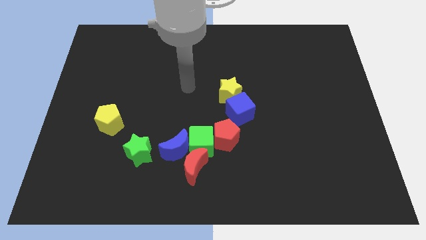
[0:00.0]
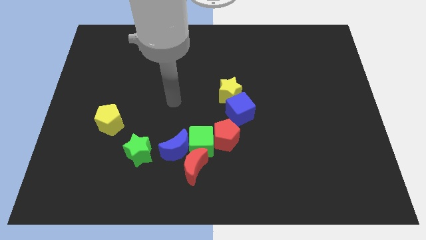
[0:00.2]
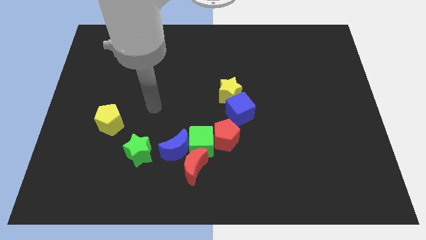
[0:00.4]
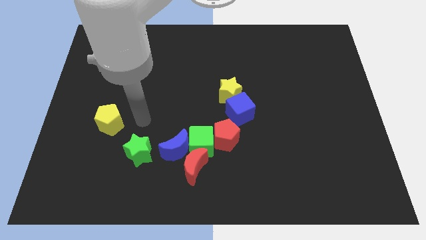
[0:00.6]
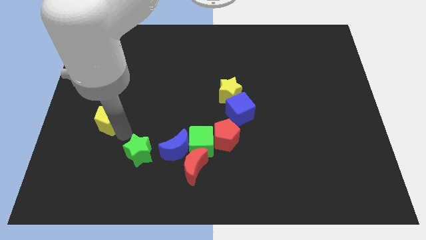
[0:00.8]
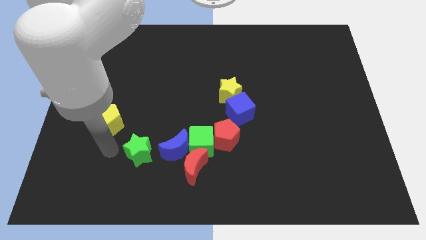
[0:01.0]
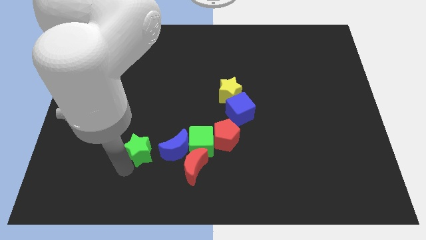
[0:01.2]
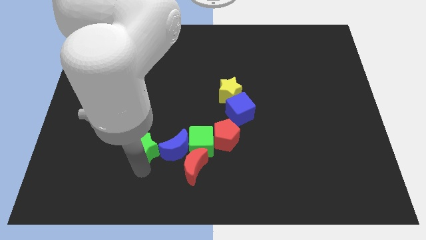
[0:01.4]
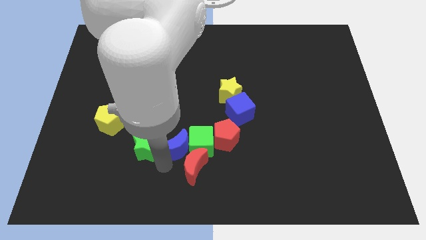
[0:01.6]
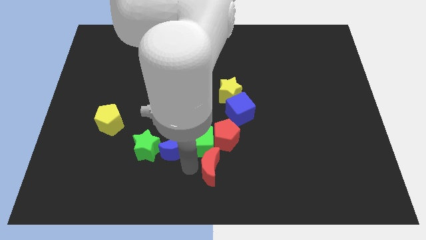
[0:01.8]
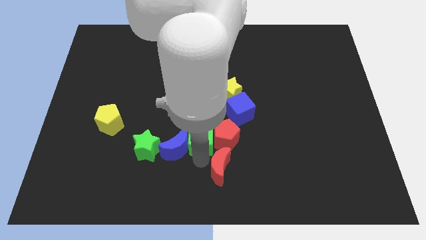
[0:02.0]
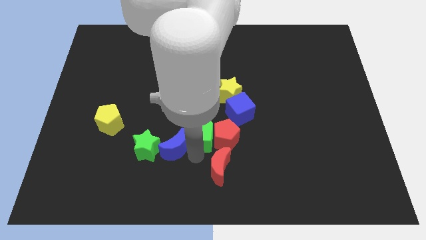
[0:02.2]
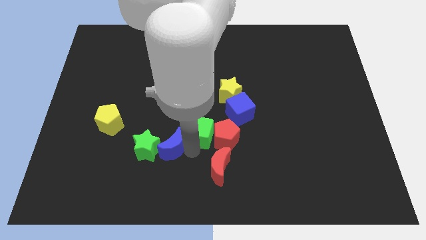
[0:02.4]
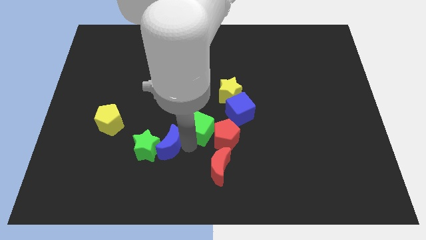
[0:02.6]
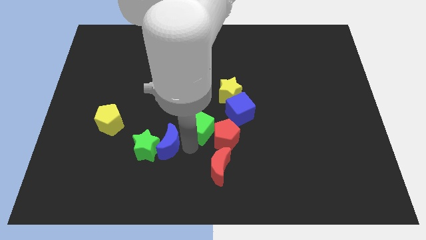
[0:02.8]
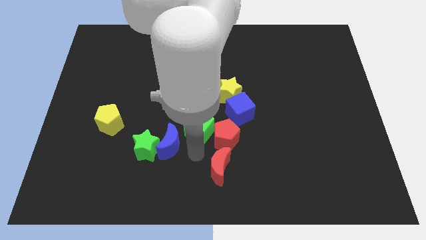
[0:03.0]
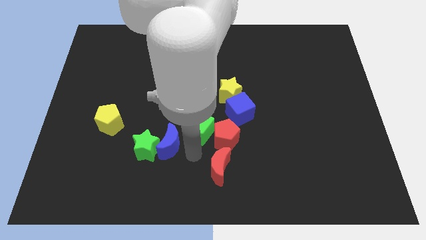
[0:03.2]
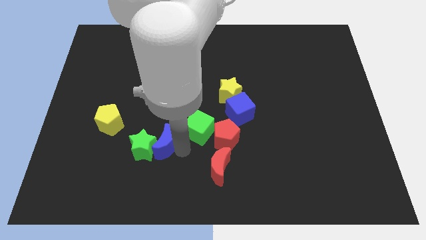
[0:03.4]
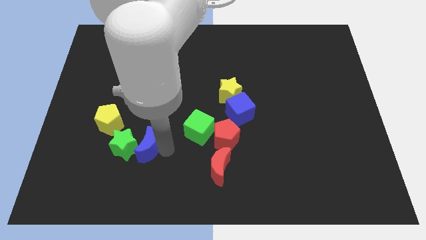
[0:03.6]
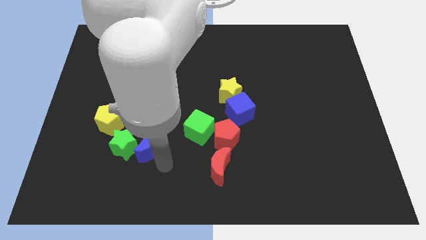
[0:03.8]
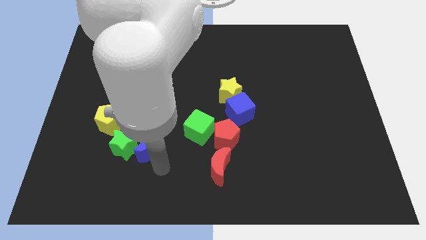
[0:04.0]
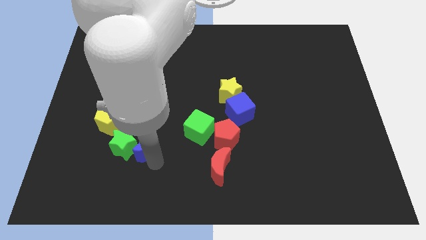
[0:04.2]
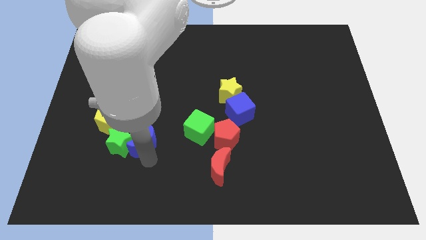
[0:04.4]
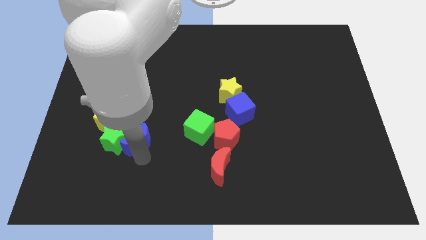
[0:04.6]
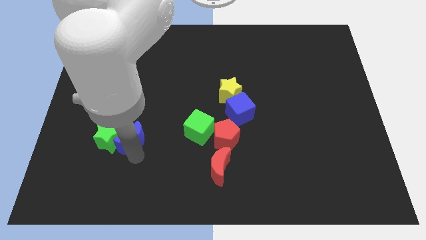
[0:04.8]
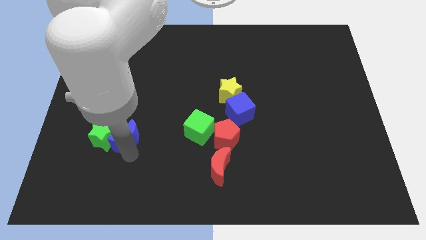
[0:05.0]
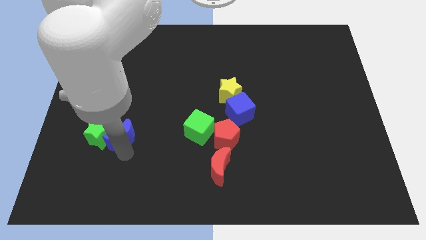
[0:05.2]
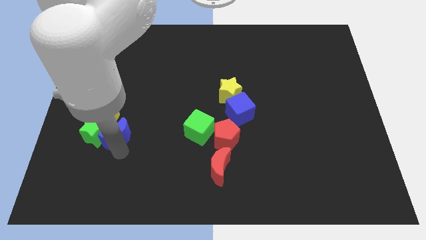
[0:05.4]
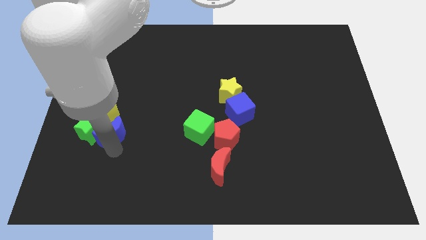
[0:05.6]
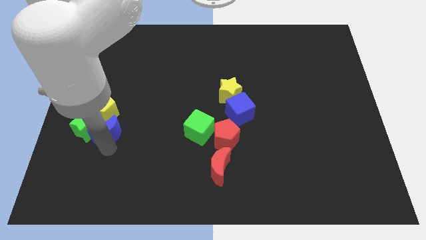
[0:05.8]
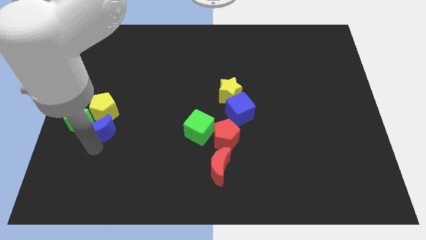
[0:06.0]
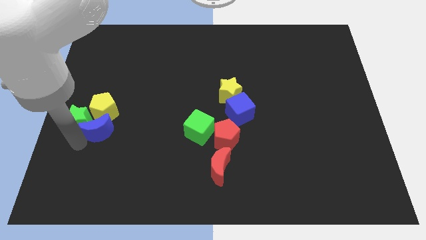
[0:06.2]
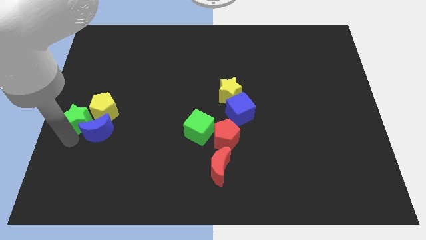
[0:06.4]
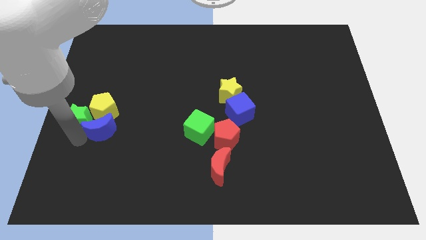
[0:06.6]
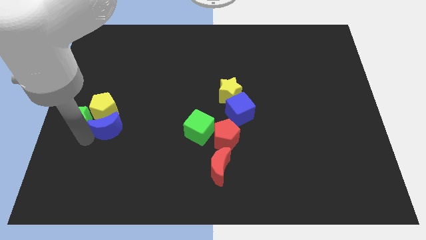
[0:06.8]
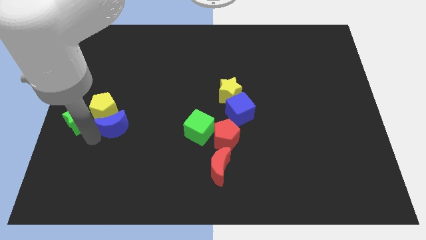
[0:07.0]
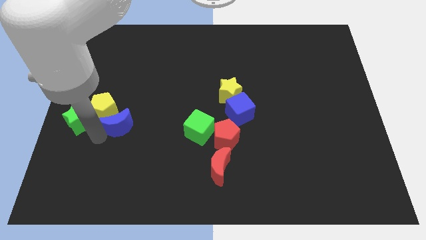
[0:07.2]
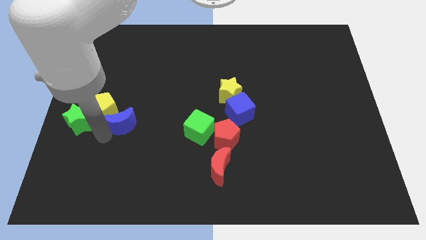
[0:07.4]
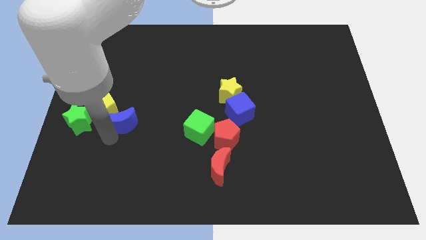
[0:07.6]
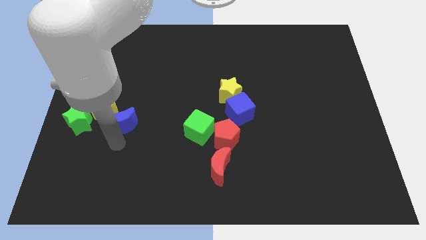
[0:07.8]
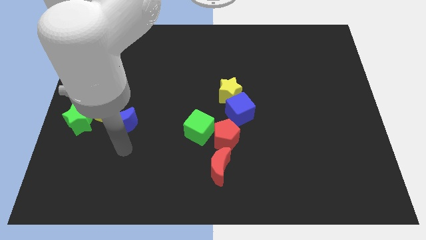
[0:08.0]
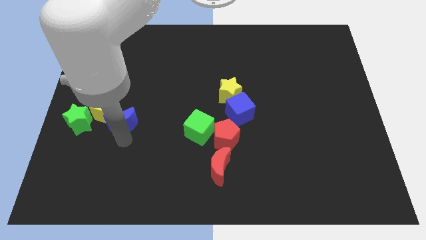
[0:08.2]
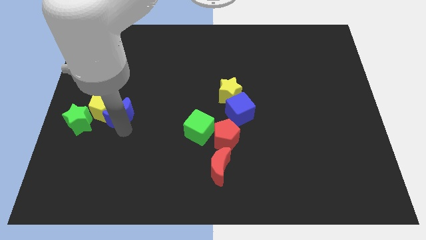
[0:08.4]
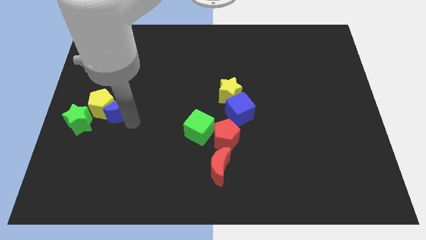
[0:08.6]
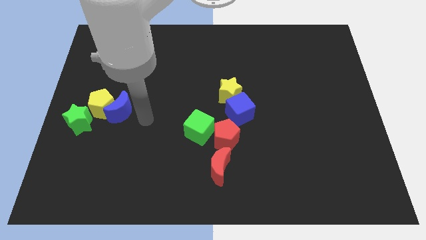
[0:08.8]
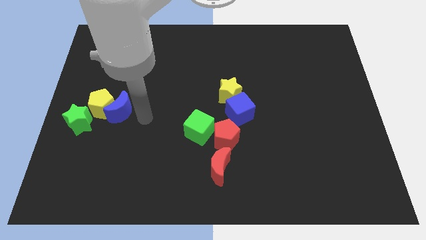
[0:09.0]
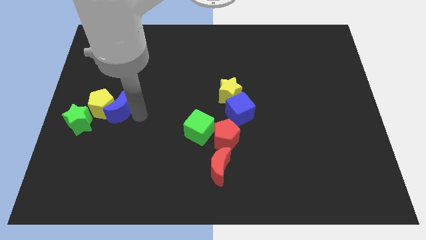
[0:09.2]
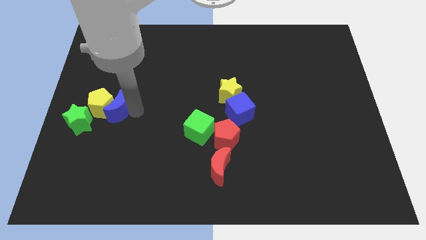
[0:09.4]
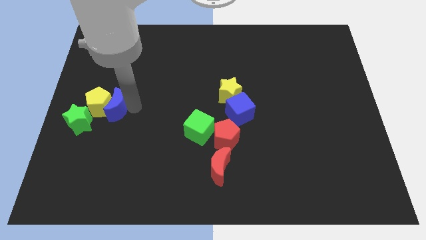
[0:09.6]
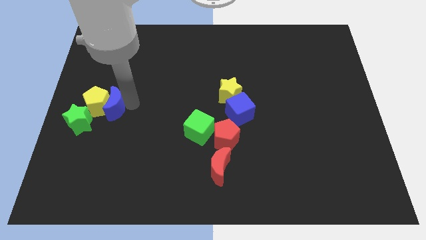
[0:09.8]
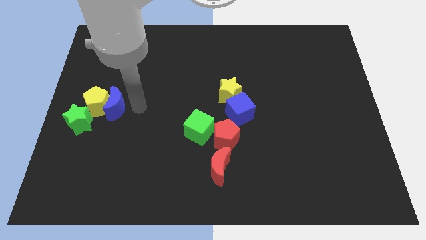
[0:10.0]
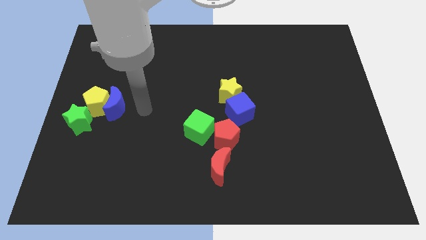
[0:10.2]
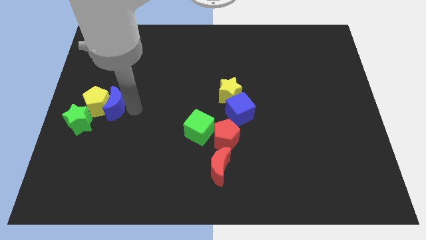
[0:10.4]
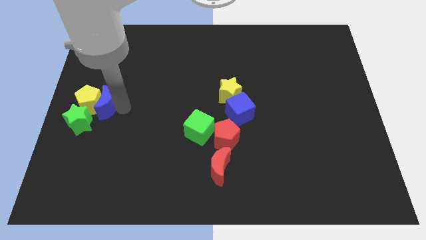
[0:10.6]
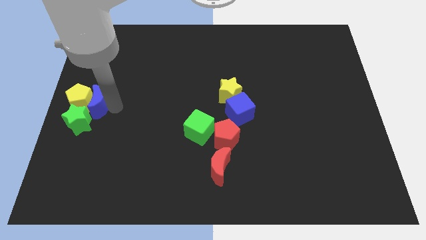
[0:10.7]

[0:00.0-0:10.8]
push the blue moon to the left side

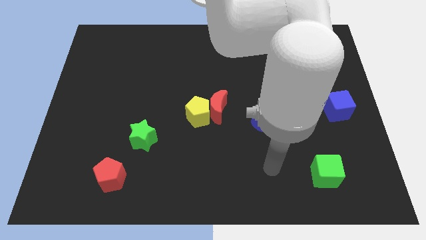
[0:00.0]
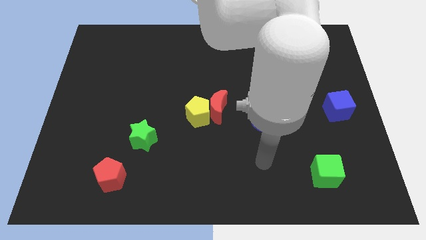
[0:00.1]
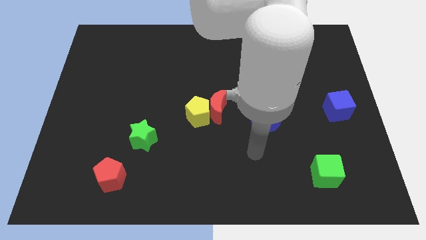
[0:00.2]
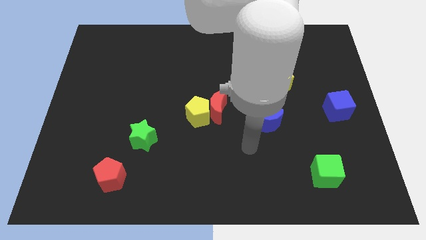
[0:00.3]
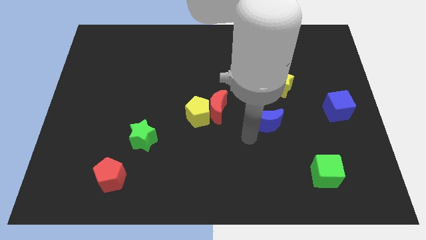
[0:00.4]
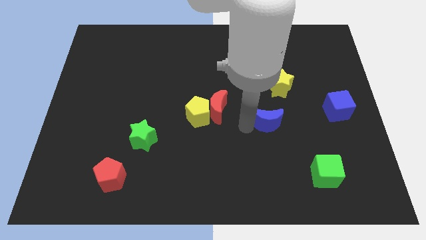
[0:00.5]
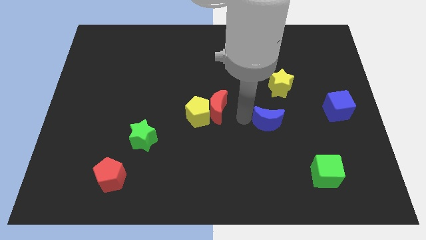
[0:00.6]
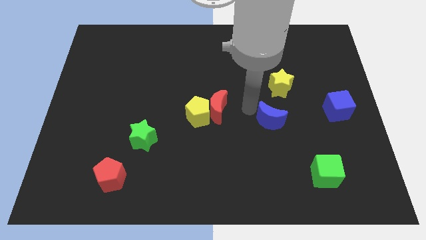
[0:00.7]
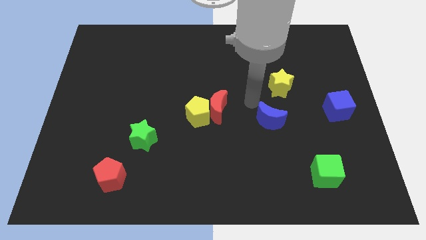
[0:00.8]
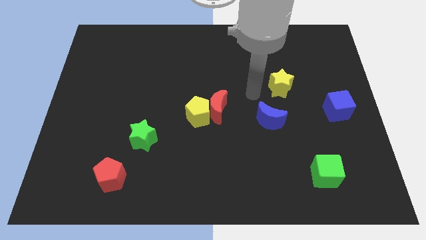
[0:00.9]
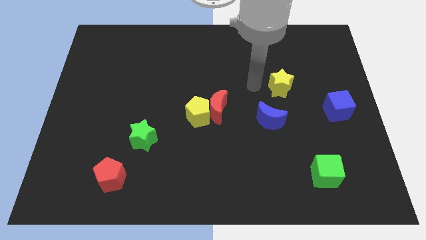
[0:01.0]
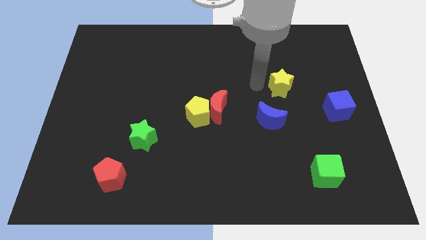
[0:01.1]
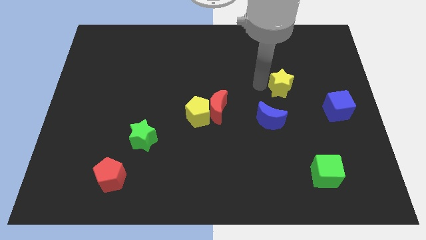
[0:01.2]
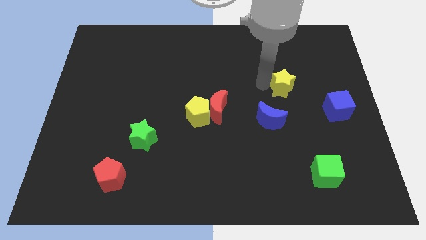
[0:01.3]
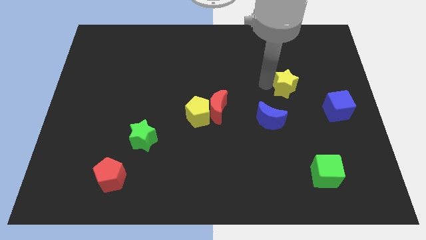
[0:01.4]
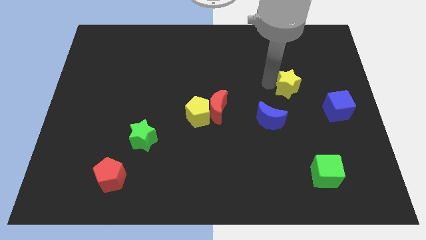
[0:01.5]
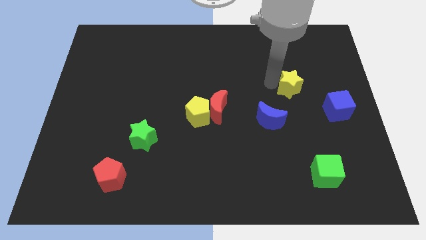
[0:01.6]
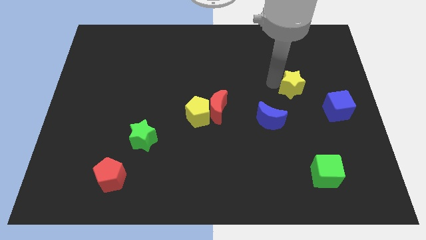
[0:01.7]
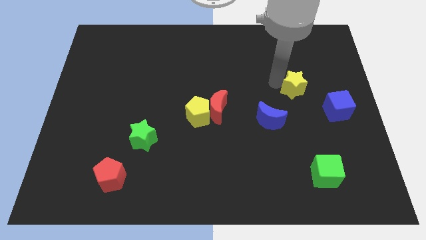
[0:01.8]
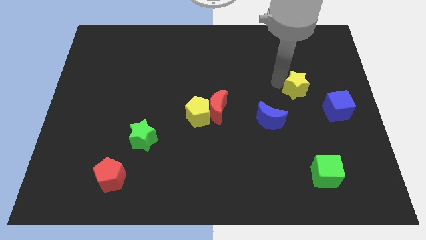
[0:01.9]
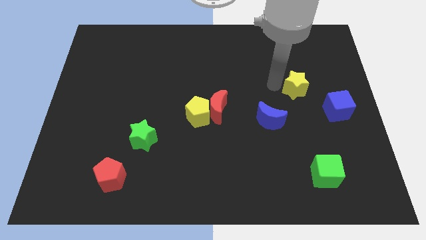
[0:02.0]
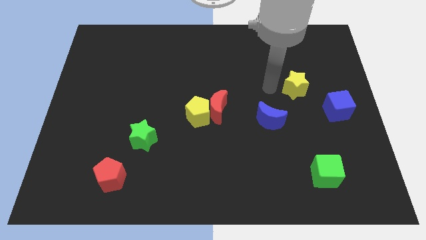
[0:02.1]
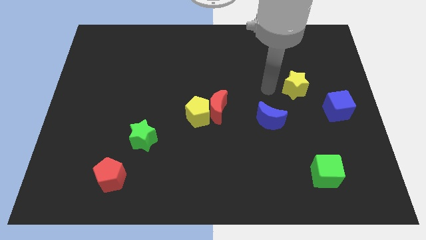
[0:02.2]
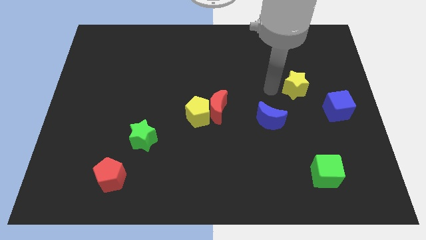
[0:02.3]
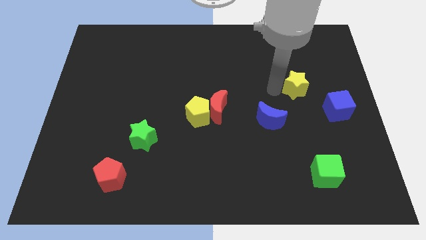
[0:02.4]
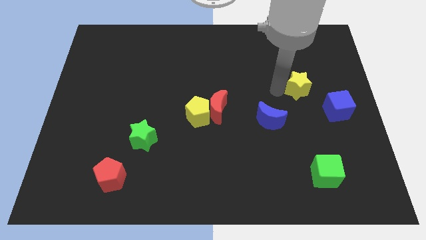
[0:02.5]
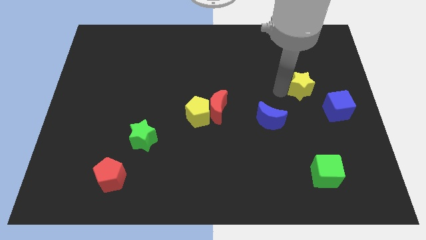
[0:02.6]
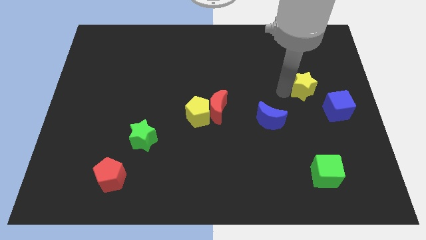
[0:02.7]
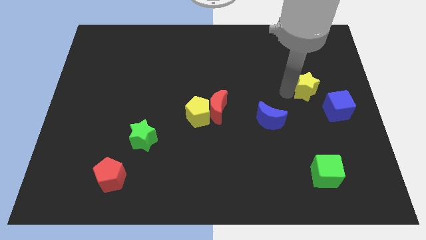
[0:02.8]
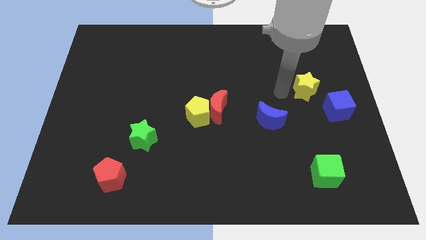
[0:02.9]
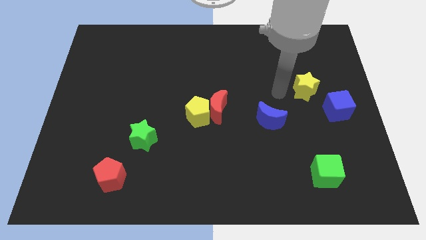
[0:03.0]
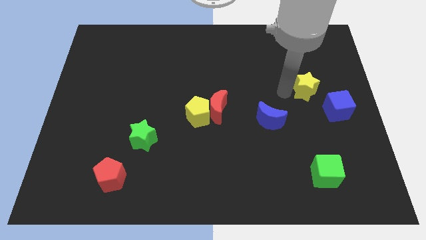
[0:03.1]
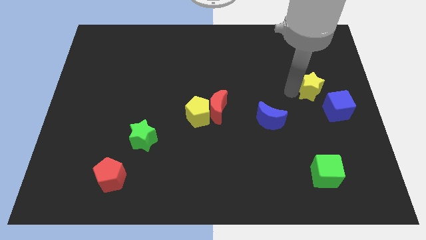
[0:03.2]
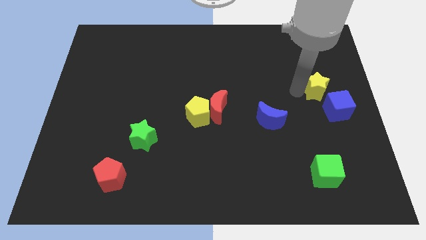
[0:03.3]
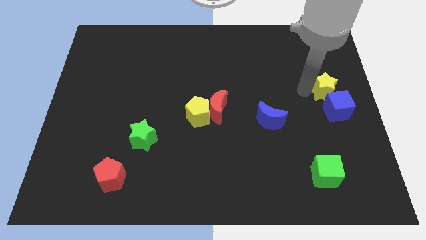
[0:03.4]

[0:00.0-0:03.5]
slide the yellow star to the center right
